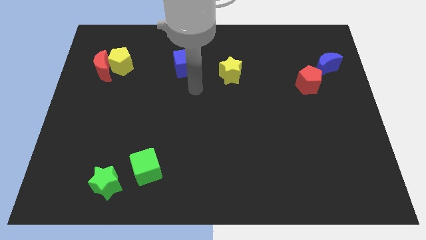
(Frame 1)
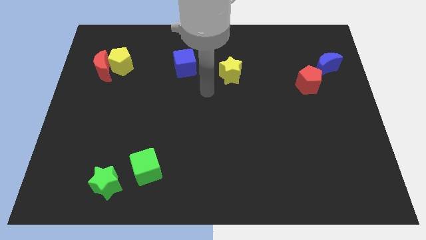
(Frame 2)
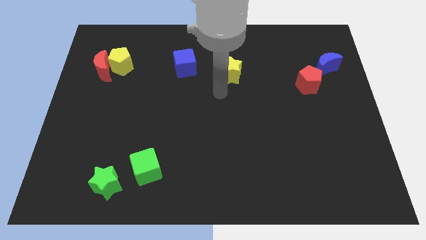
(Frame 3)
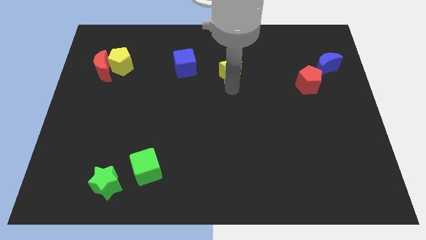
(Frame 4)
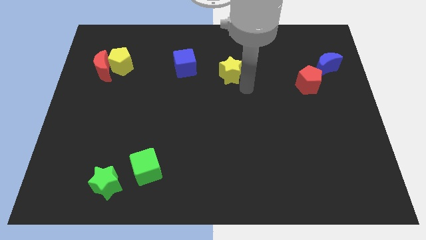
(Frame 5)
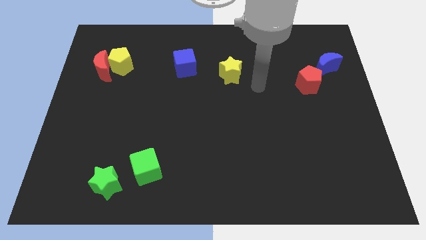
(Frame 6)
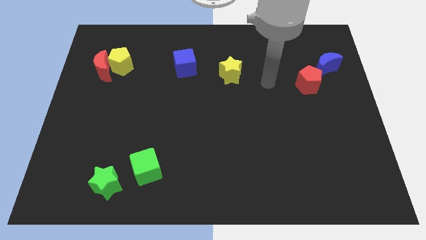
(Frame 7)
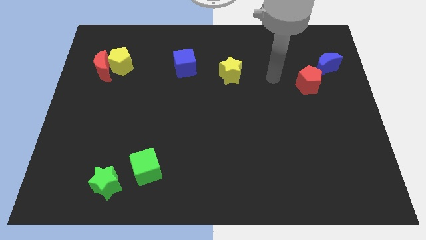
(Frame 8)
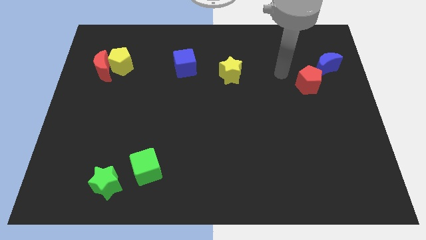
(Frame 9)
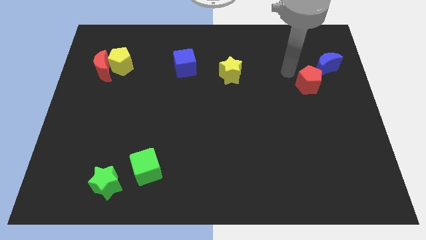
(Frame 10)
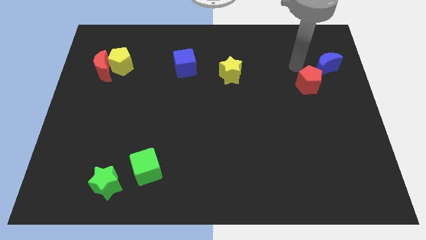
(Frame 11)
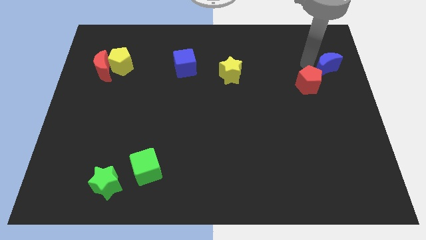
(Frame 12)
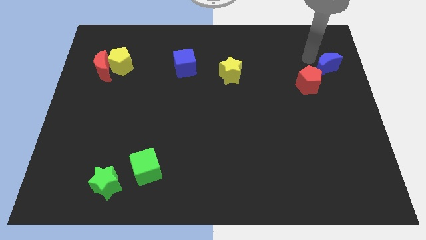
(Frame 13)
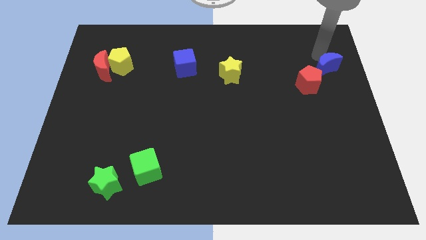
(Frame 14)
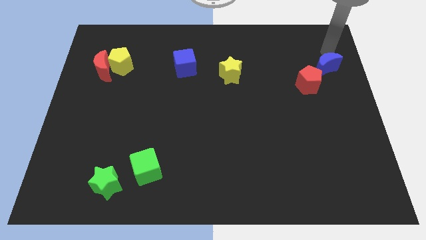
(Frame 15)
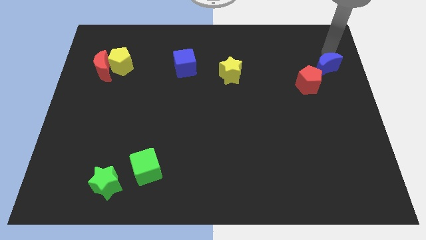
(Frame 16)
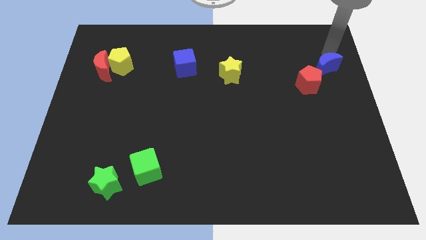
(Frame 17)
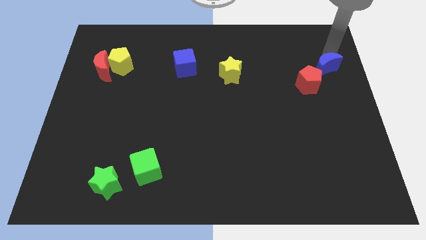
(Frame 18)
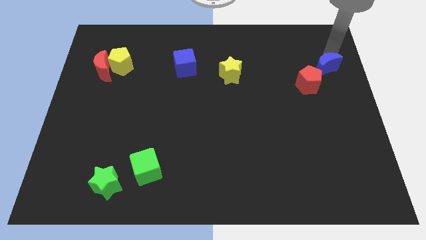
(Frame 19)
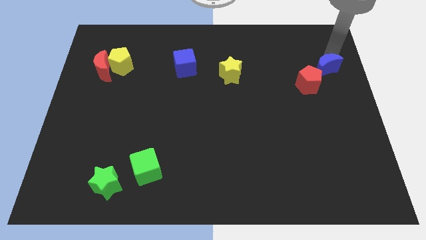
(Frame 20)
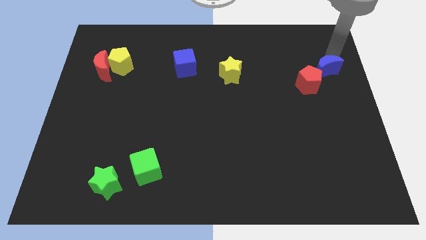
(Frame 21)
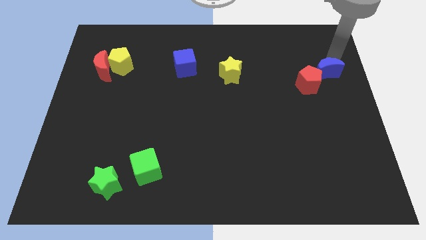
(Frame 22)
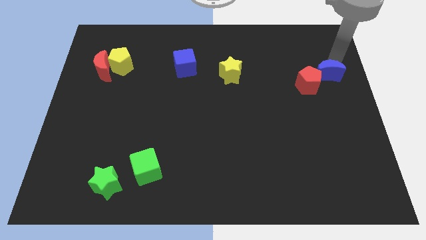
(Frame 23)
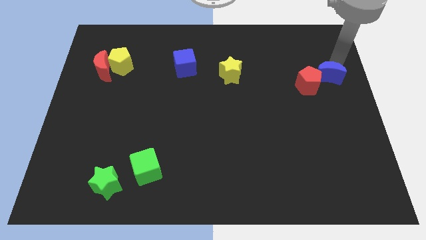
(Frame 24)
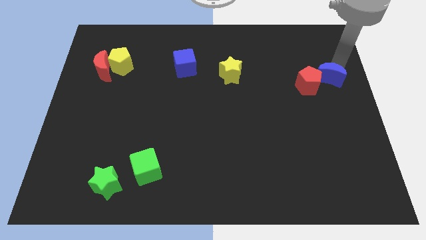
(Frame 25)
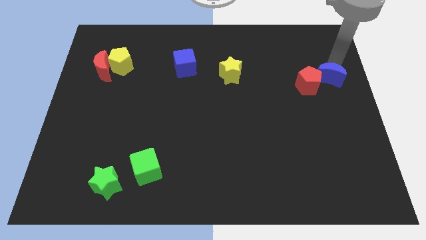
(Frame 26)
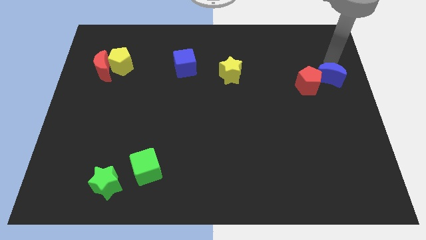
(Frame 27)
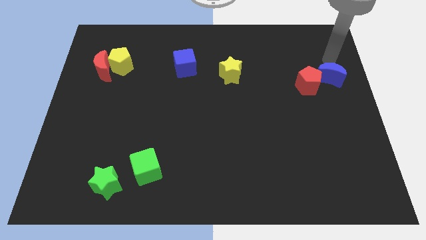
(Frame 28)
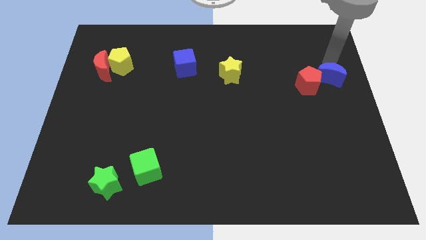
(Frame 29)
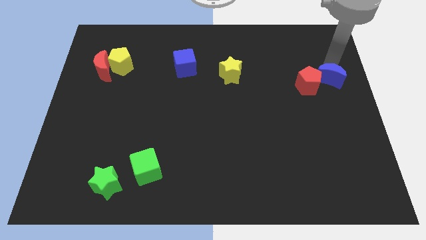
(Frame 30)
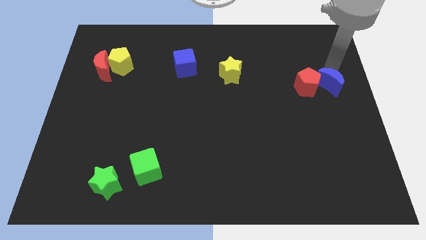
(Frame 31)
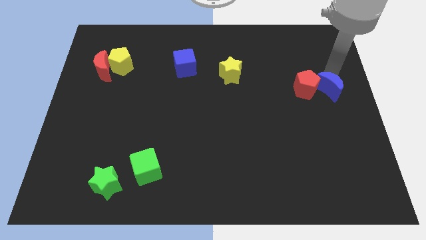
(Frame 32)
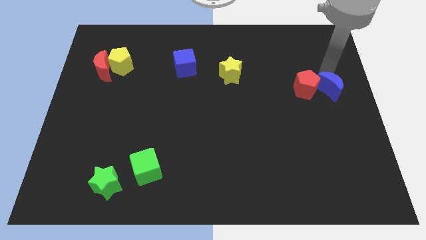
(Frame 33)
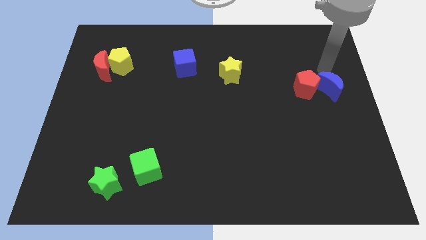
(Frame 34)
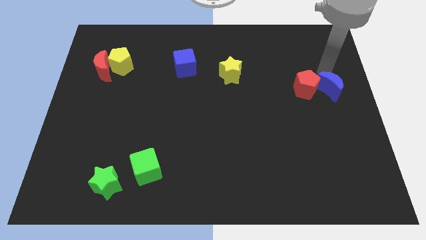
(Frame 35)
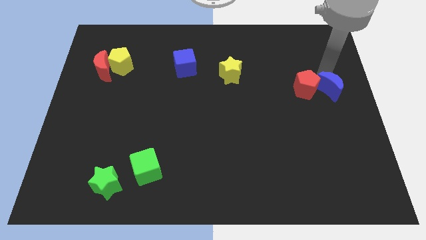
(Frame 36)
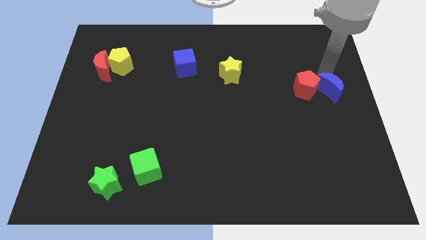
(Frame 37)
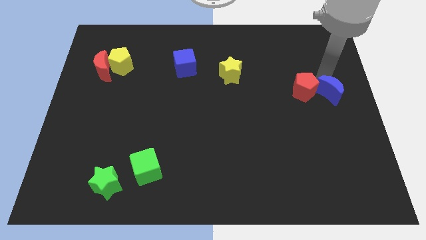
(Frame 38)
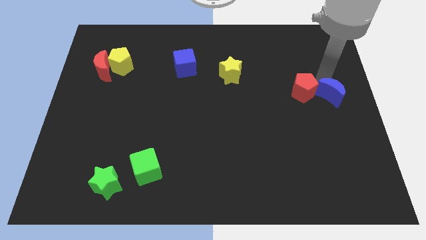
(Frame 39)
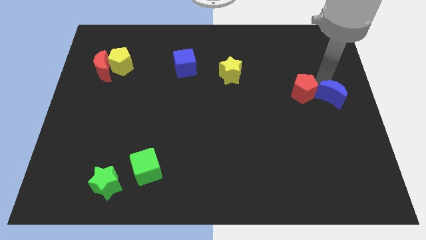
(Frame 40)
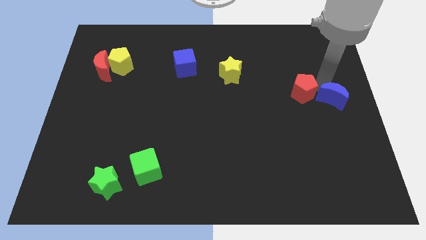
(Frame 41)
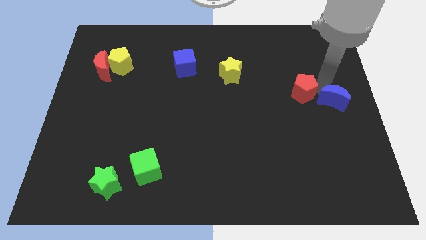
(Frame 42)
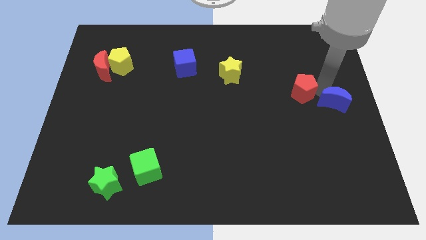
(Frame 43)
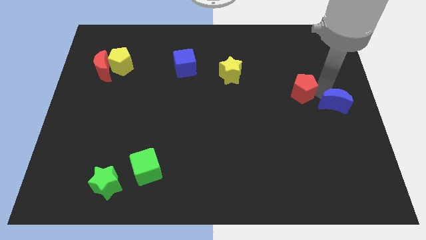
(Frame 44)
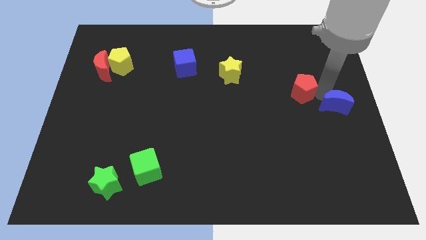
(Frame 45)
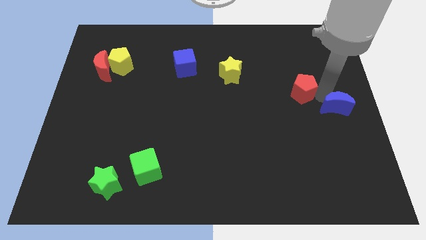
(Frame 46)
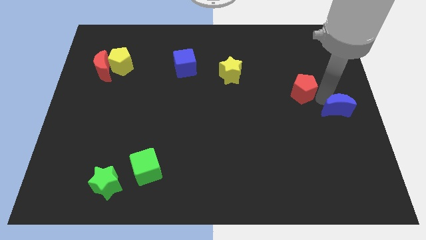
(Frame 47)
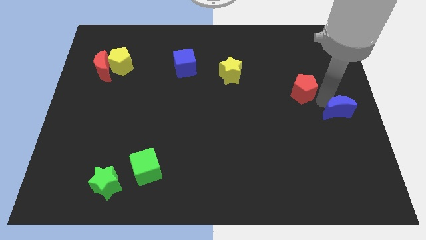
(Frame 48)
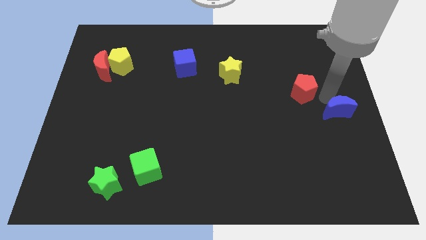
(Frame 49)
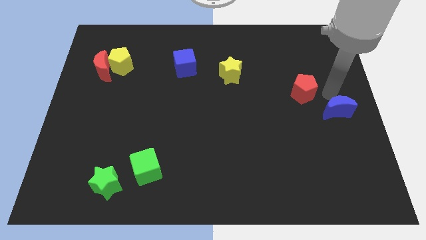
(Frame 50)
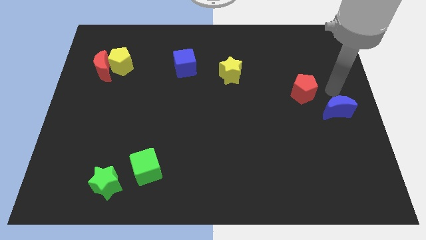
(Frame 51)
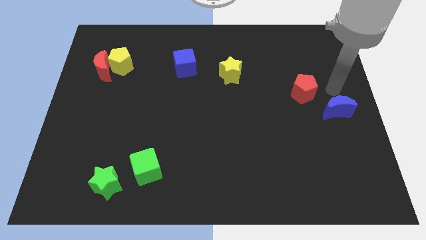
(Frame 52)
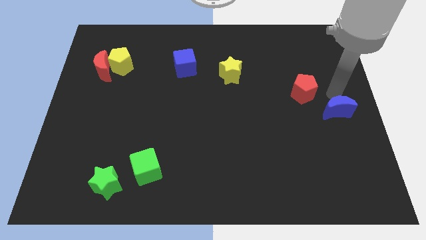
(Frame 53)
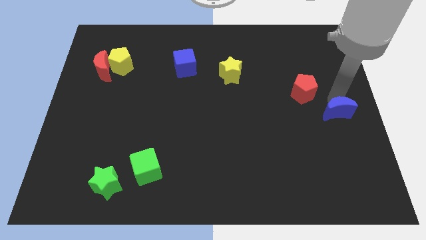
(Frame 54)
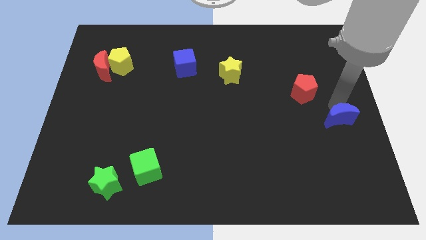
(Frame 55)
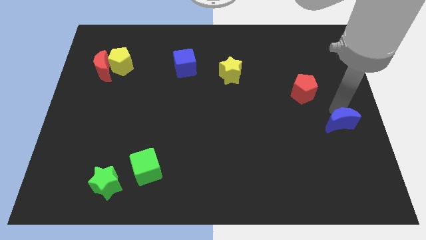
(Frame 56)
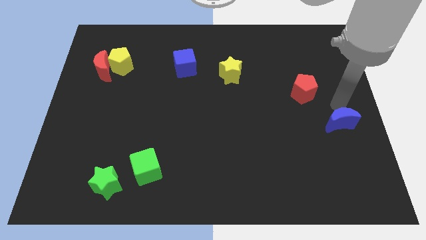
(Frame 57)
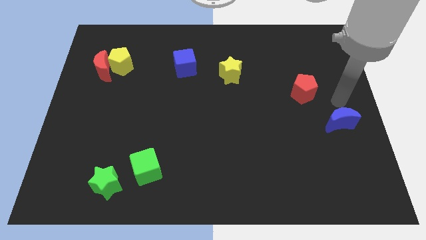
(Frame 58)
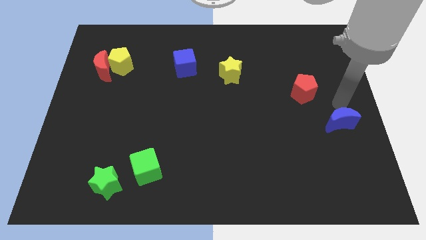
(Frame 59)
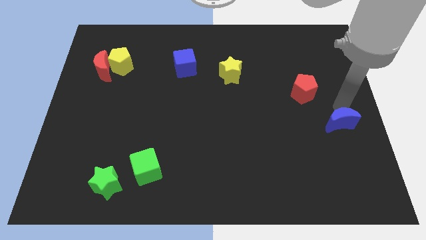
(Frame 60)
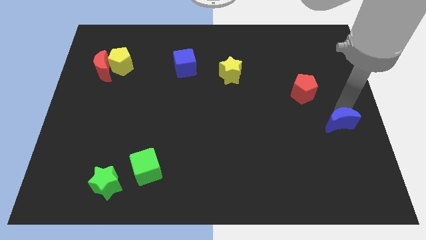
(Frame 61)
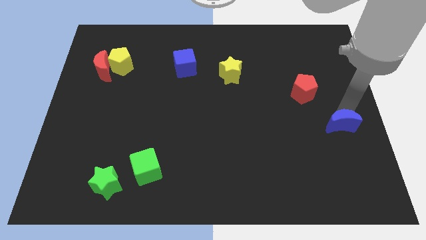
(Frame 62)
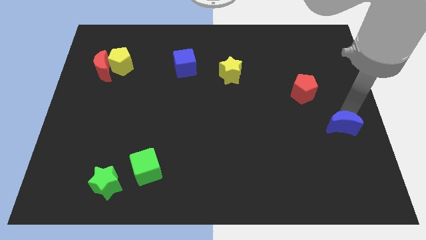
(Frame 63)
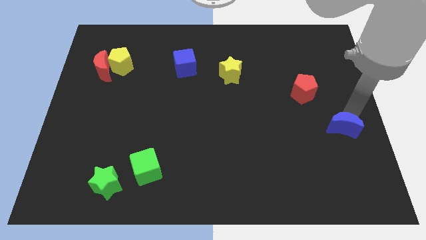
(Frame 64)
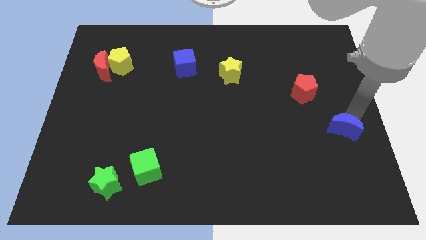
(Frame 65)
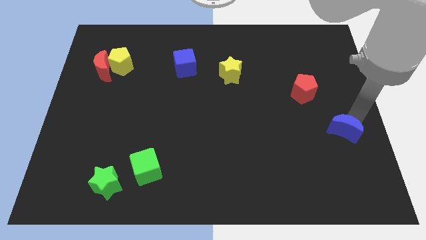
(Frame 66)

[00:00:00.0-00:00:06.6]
push the blue moon down

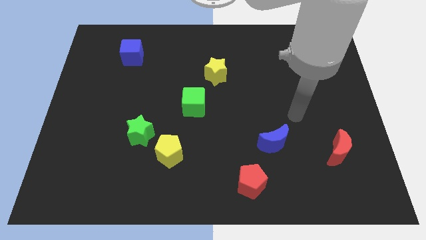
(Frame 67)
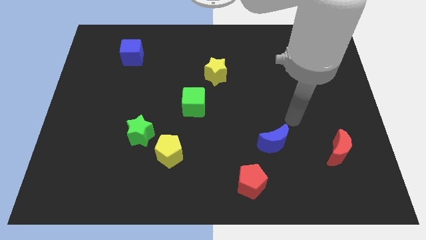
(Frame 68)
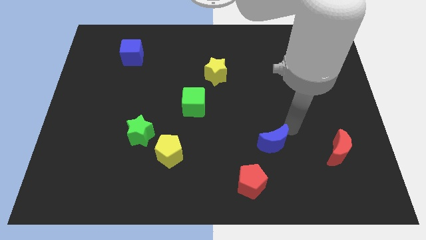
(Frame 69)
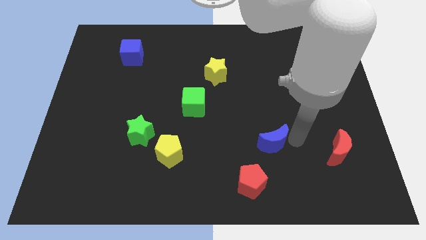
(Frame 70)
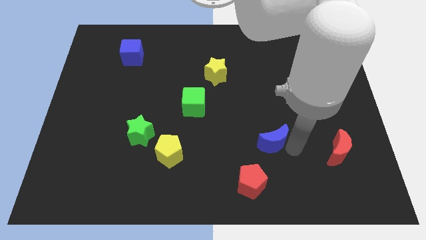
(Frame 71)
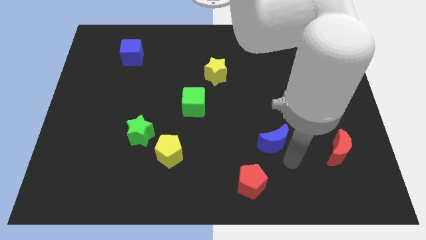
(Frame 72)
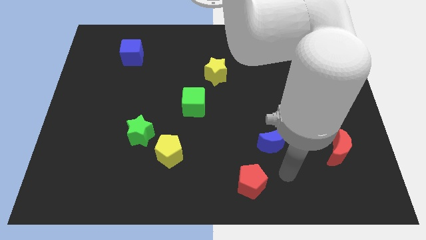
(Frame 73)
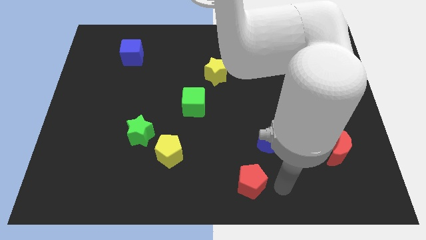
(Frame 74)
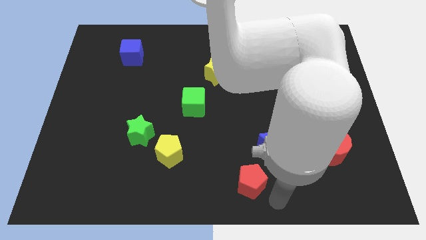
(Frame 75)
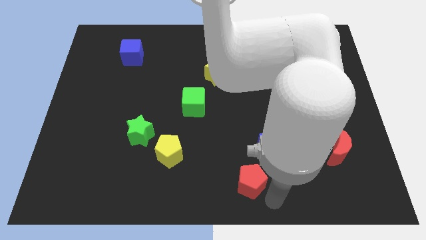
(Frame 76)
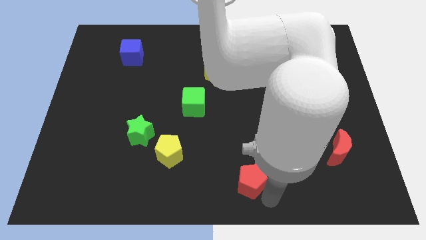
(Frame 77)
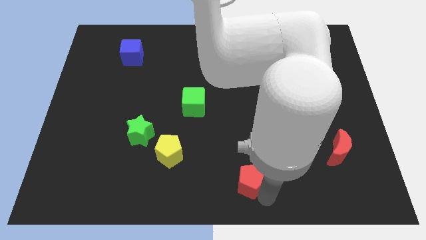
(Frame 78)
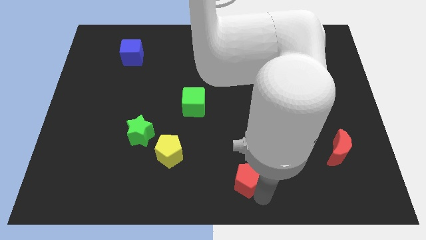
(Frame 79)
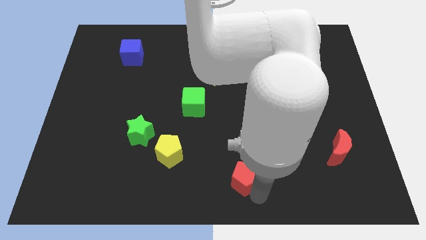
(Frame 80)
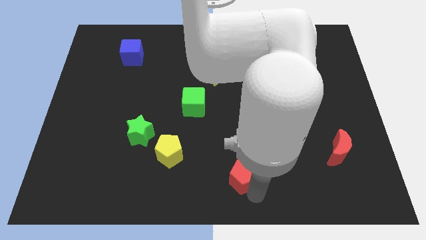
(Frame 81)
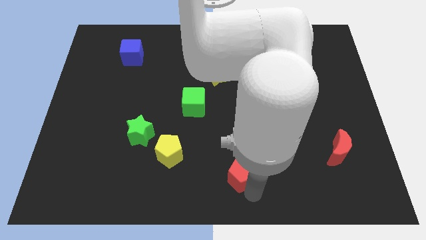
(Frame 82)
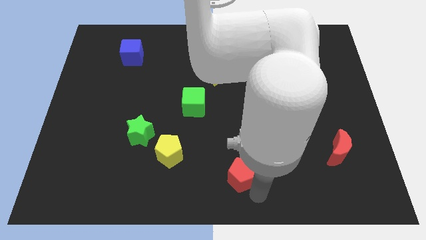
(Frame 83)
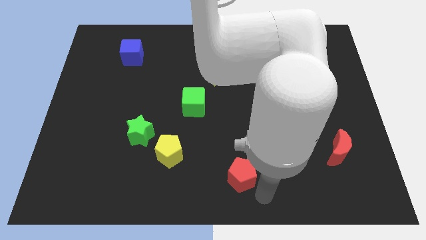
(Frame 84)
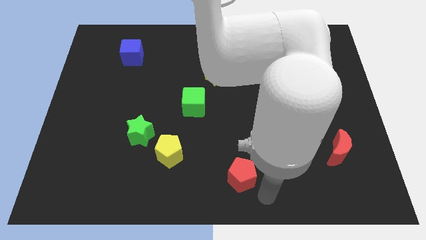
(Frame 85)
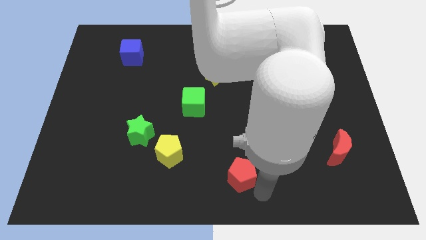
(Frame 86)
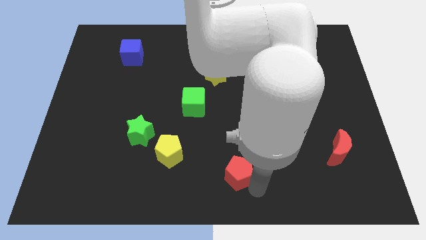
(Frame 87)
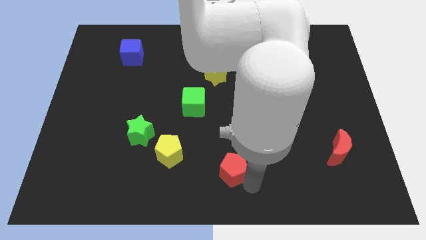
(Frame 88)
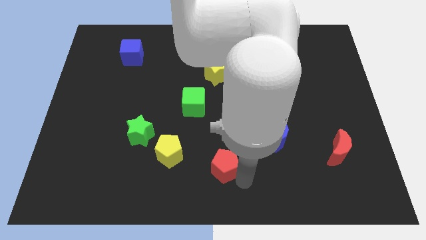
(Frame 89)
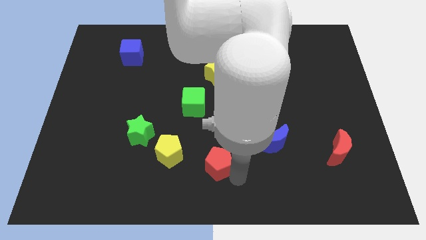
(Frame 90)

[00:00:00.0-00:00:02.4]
slide the red pentagon up and to the left diagonally a little
